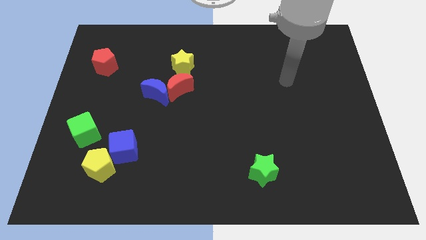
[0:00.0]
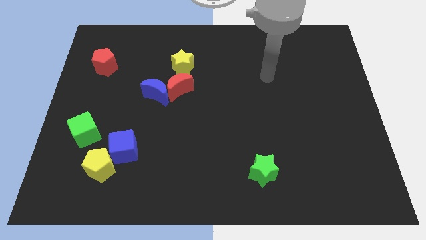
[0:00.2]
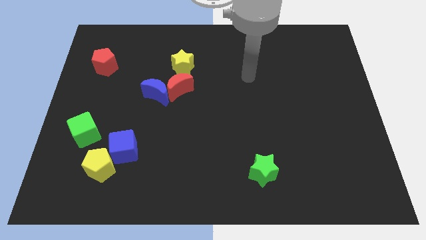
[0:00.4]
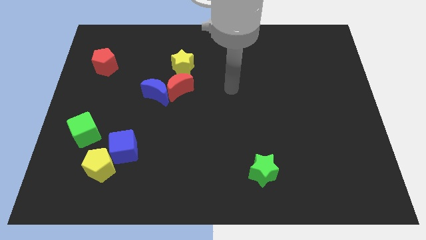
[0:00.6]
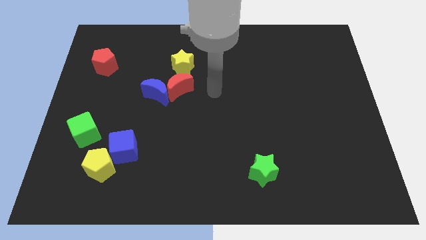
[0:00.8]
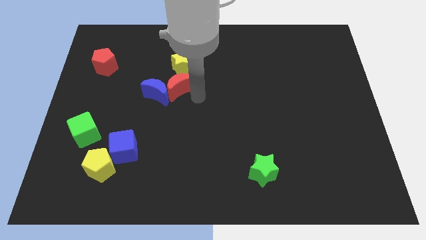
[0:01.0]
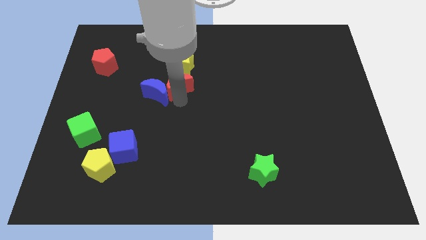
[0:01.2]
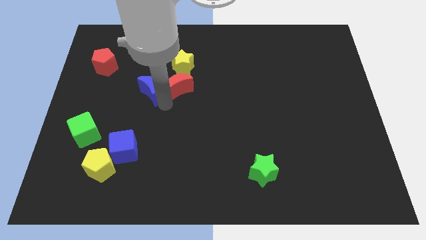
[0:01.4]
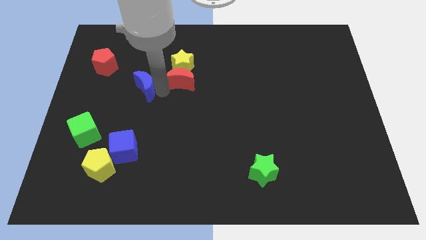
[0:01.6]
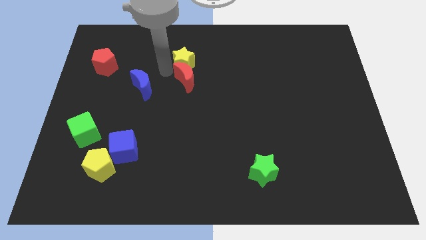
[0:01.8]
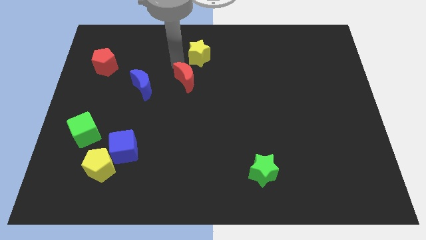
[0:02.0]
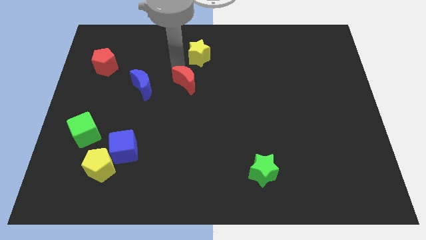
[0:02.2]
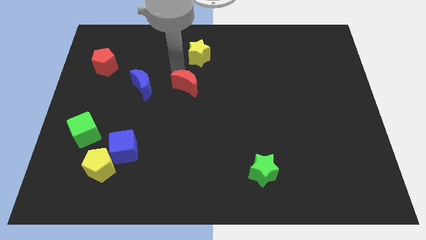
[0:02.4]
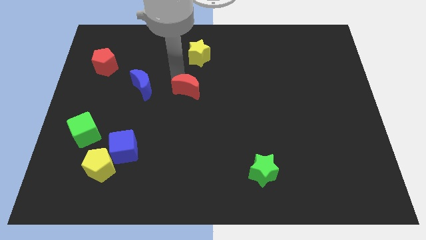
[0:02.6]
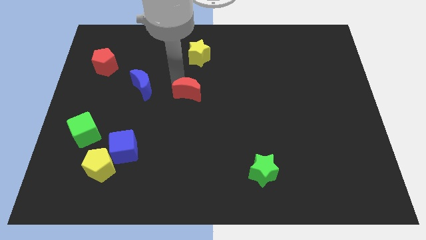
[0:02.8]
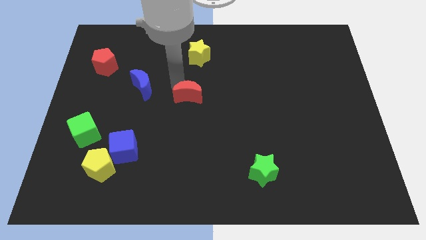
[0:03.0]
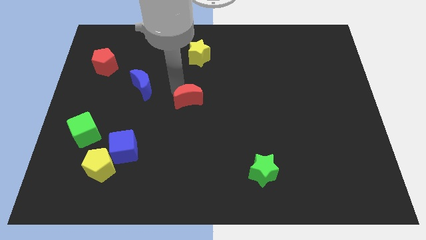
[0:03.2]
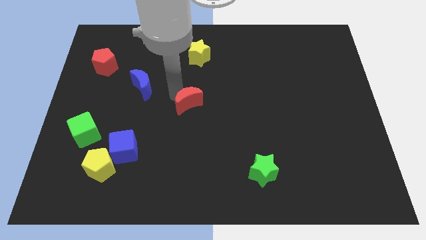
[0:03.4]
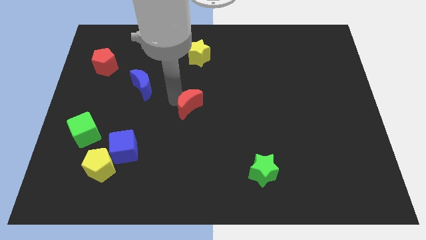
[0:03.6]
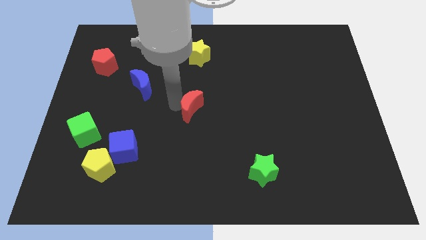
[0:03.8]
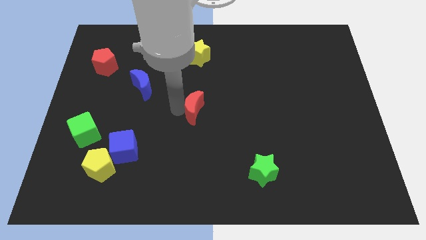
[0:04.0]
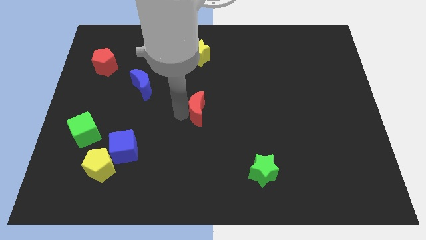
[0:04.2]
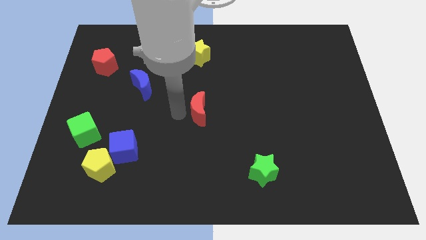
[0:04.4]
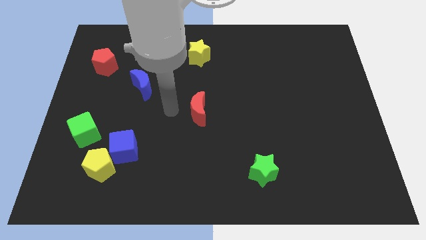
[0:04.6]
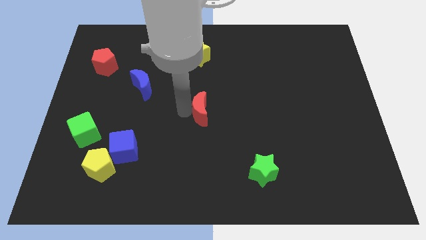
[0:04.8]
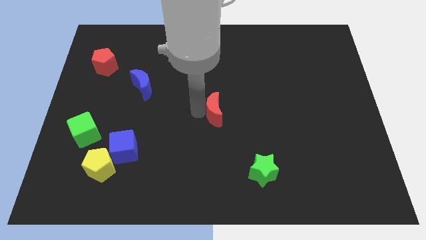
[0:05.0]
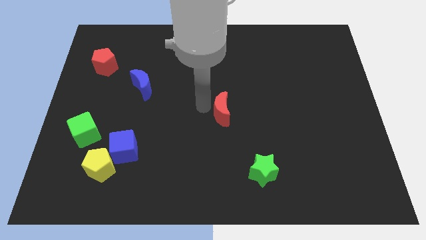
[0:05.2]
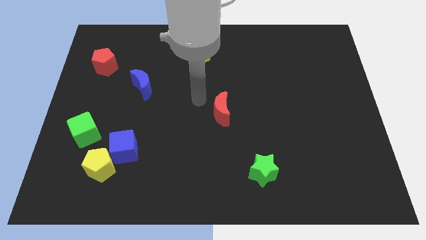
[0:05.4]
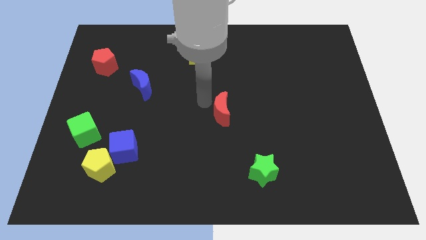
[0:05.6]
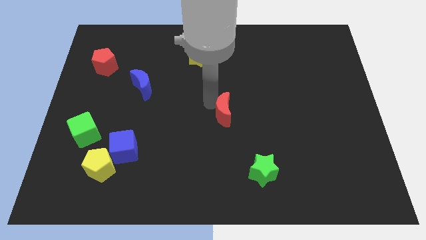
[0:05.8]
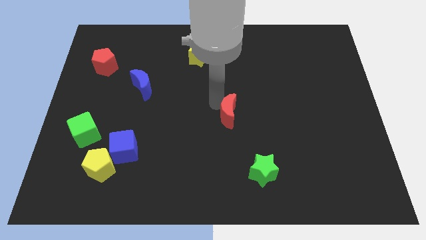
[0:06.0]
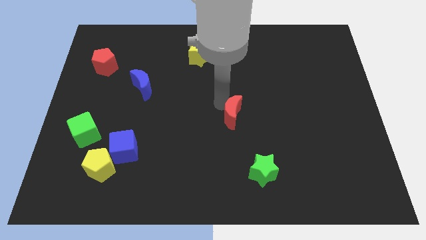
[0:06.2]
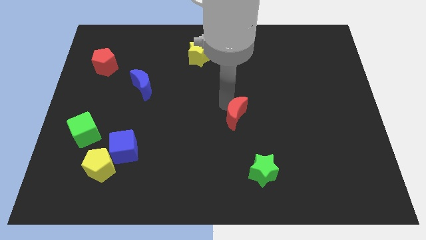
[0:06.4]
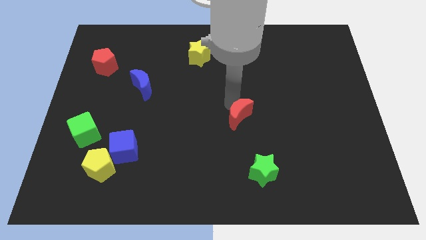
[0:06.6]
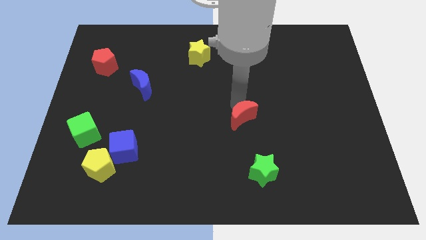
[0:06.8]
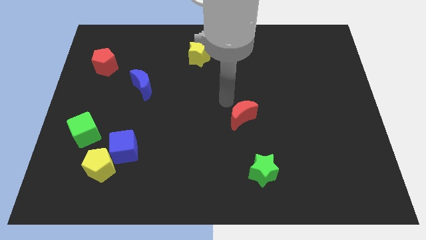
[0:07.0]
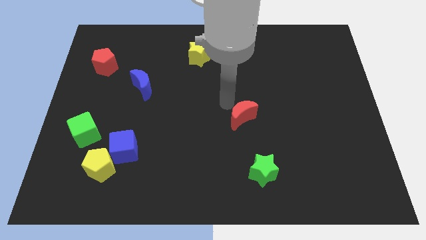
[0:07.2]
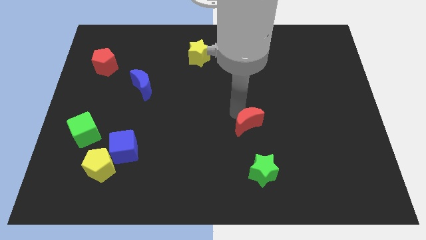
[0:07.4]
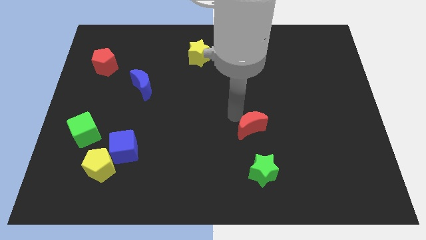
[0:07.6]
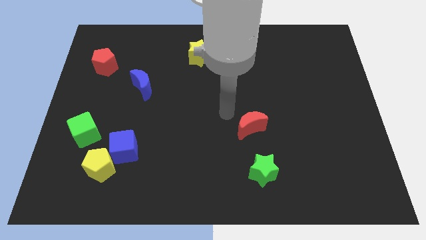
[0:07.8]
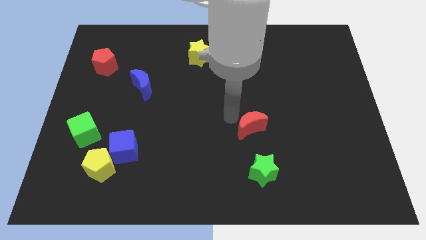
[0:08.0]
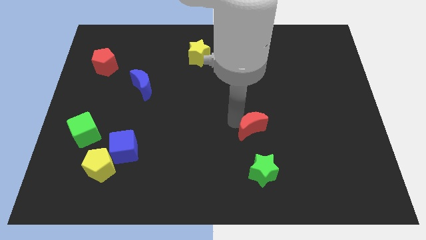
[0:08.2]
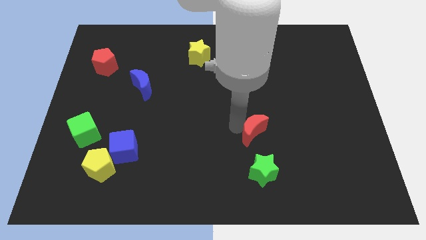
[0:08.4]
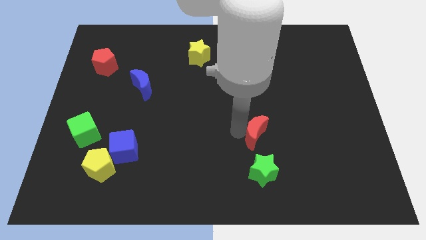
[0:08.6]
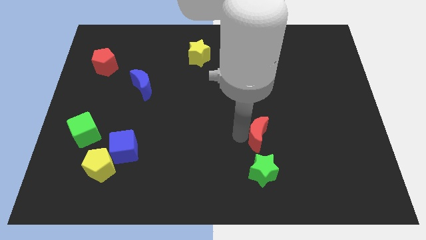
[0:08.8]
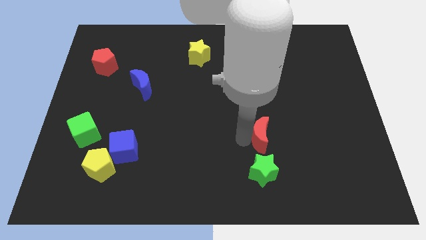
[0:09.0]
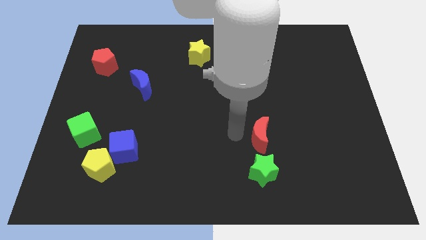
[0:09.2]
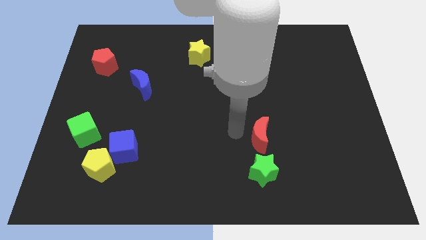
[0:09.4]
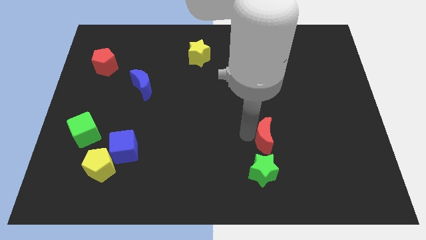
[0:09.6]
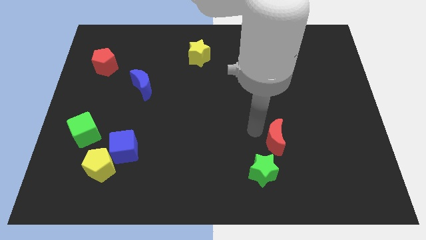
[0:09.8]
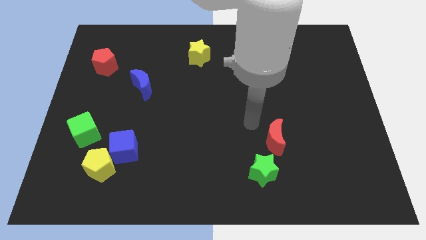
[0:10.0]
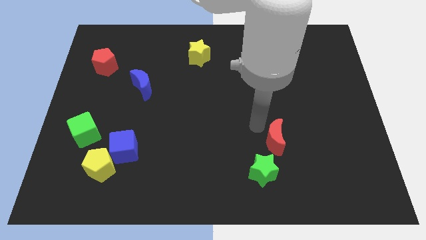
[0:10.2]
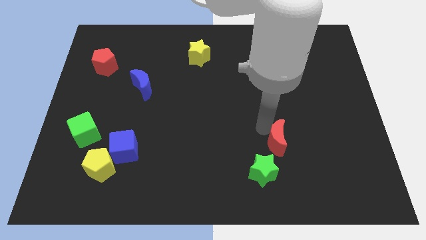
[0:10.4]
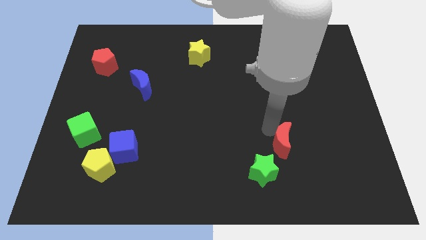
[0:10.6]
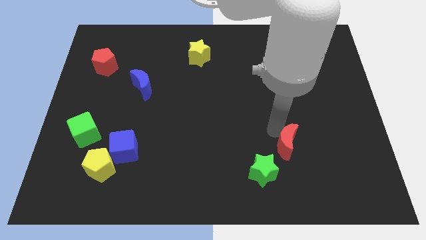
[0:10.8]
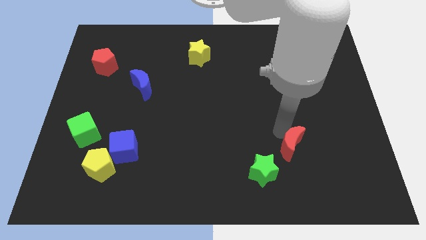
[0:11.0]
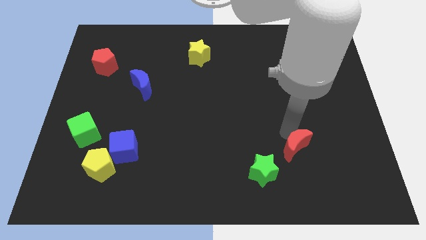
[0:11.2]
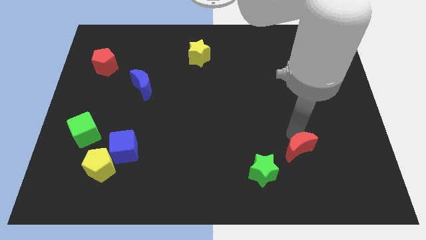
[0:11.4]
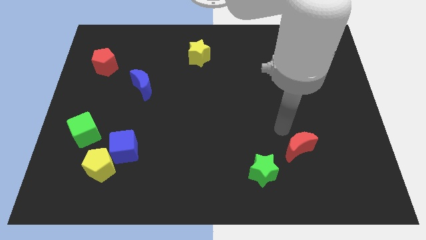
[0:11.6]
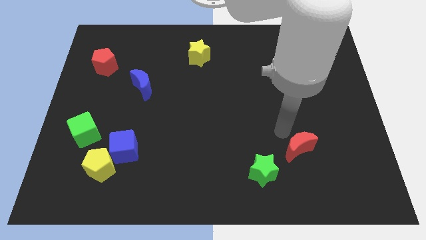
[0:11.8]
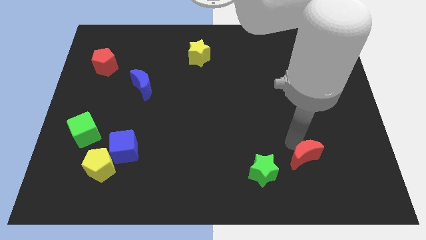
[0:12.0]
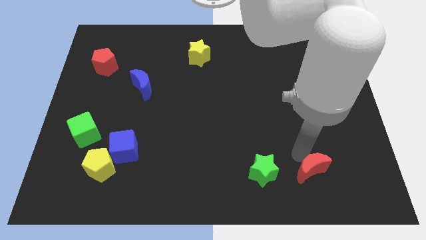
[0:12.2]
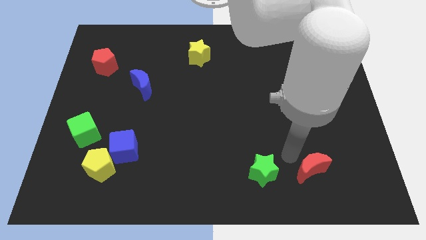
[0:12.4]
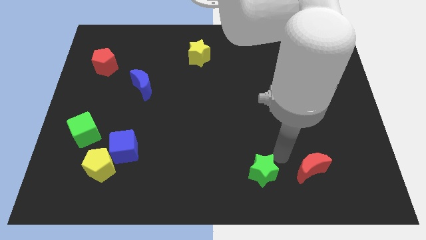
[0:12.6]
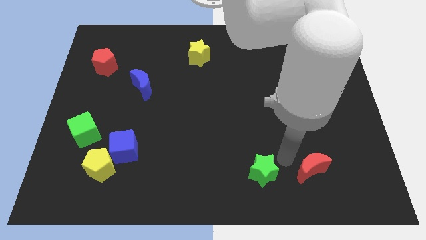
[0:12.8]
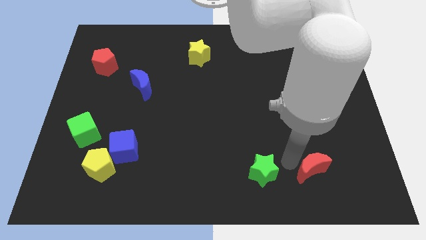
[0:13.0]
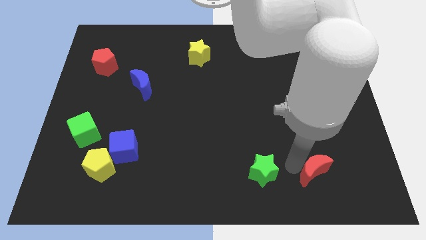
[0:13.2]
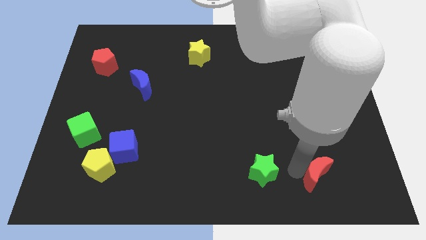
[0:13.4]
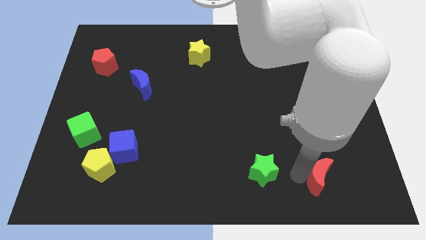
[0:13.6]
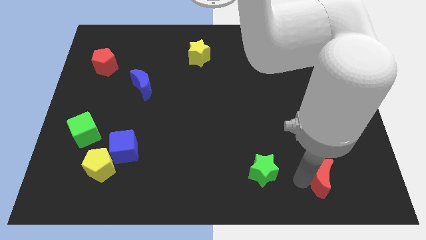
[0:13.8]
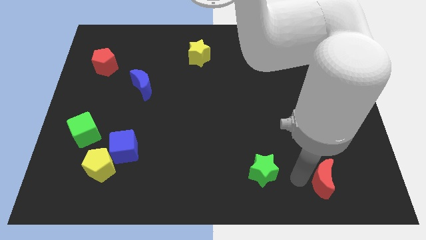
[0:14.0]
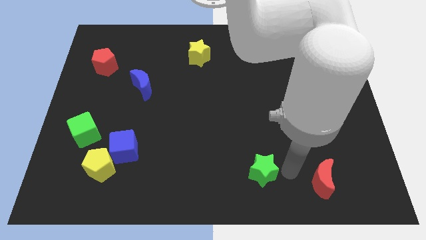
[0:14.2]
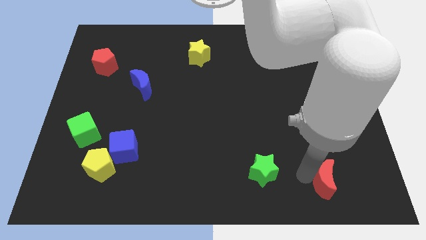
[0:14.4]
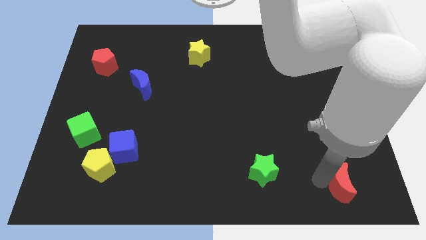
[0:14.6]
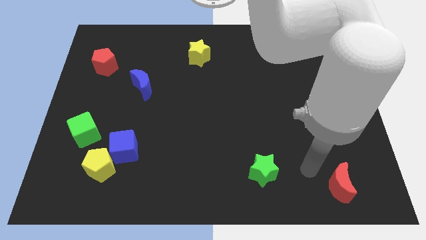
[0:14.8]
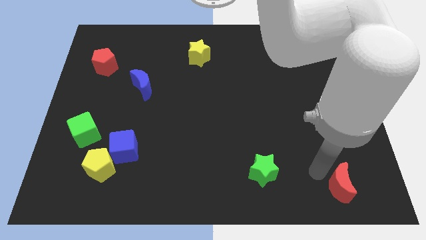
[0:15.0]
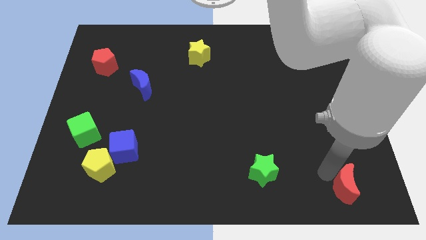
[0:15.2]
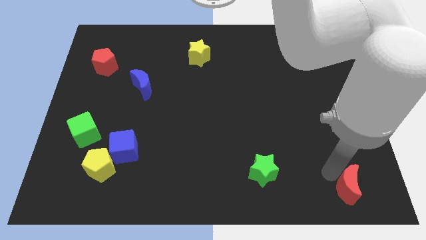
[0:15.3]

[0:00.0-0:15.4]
put the red moon to the bottom right
